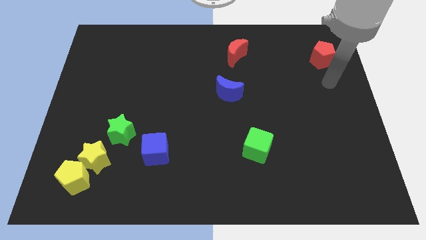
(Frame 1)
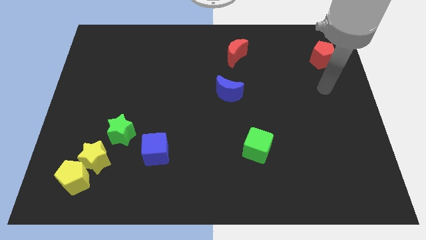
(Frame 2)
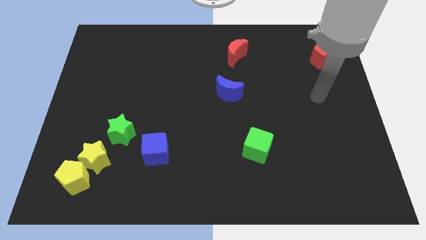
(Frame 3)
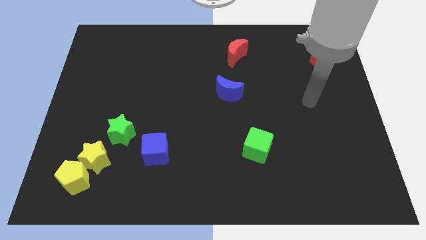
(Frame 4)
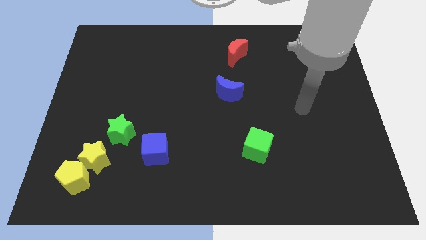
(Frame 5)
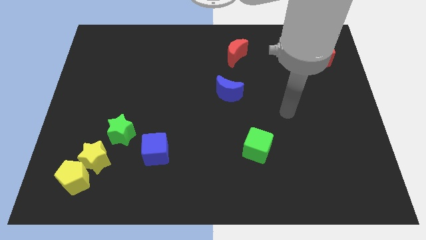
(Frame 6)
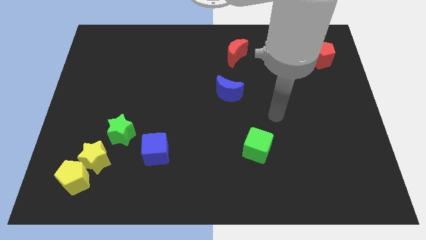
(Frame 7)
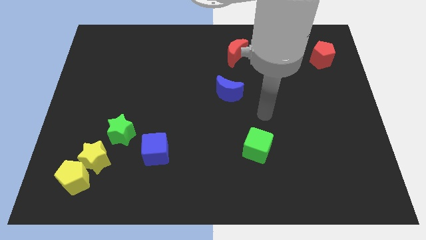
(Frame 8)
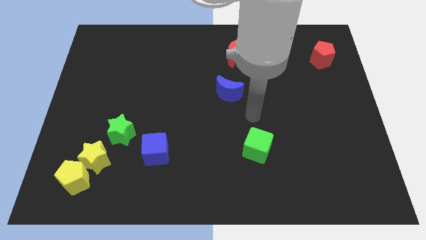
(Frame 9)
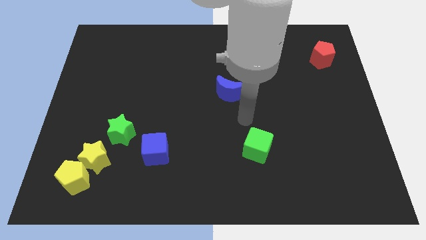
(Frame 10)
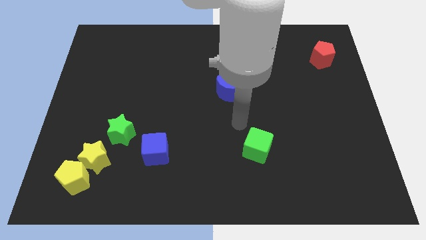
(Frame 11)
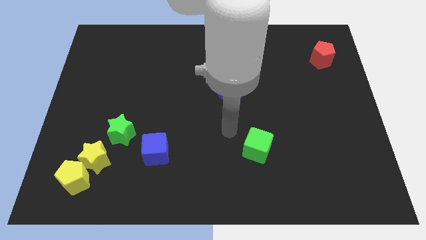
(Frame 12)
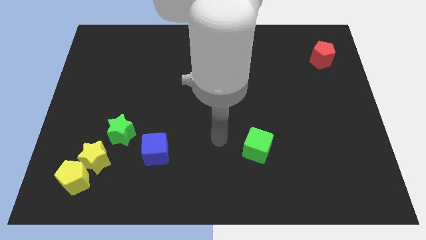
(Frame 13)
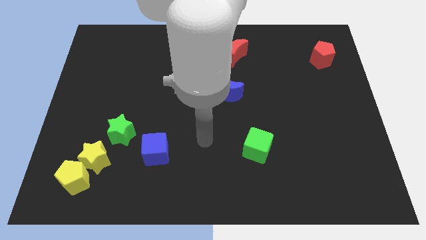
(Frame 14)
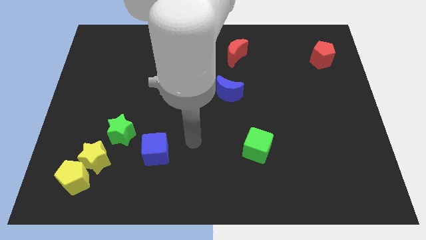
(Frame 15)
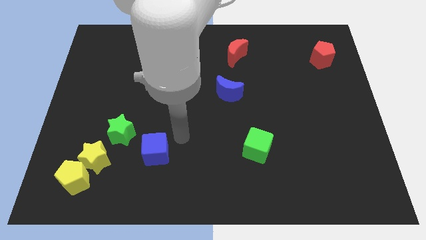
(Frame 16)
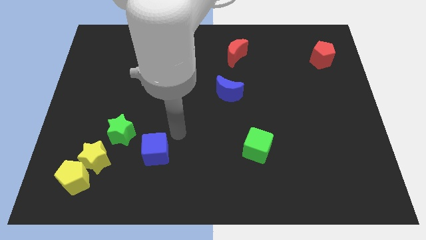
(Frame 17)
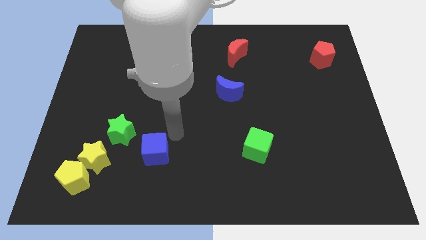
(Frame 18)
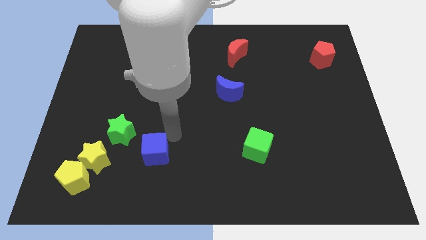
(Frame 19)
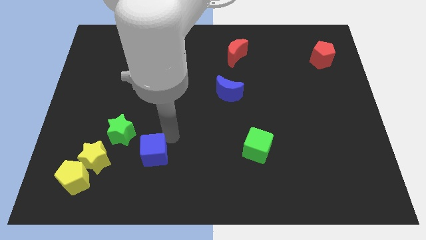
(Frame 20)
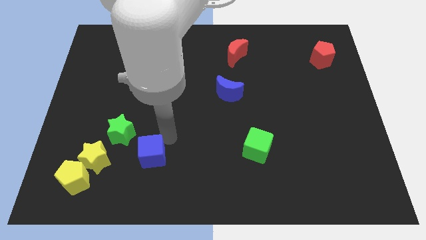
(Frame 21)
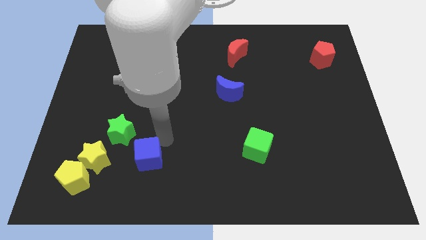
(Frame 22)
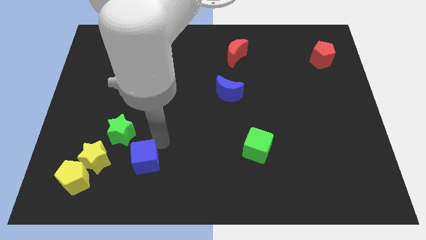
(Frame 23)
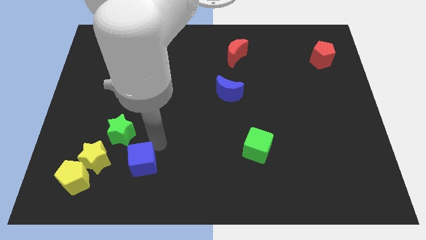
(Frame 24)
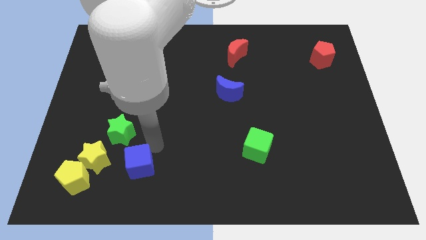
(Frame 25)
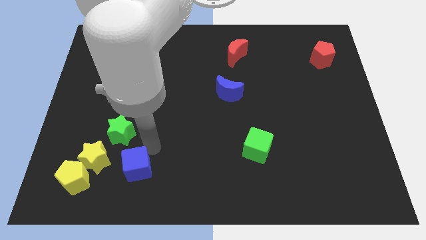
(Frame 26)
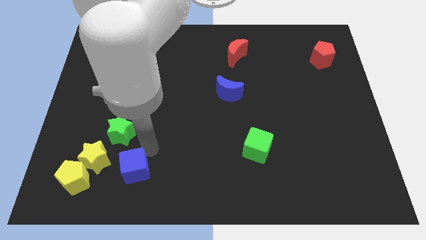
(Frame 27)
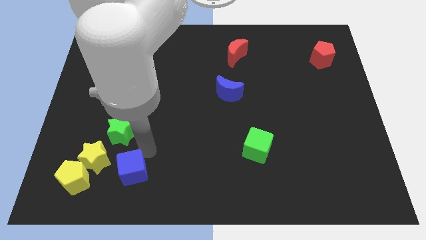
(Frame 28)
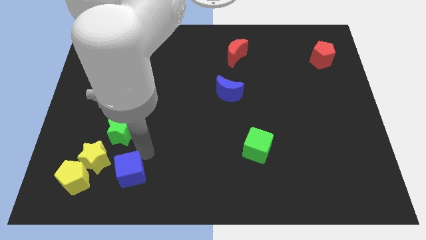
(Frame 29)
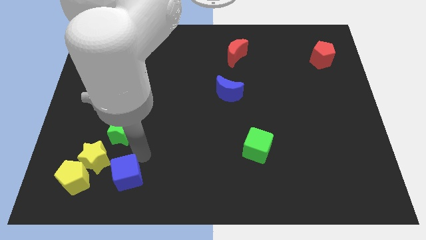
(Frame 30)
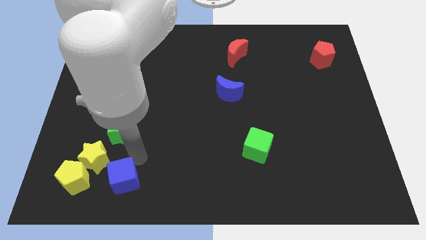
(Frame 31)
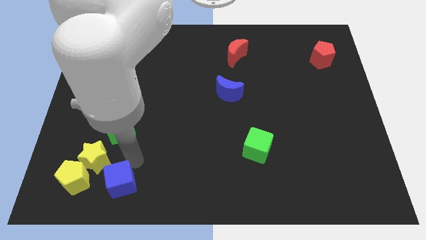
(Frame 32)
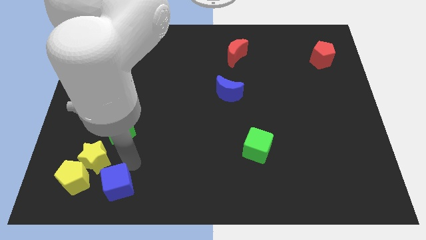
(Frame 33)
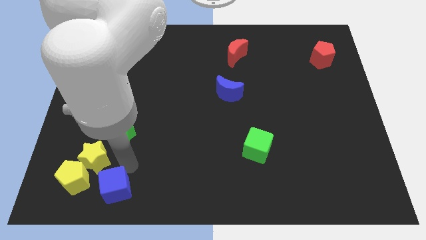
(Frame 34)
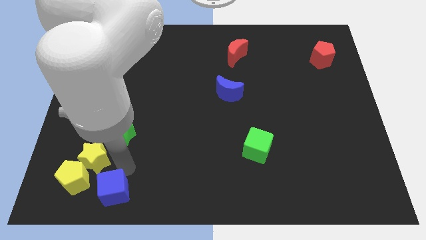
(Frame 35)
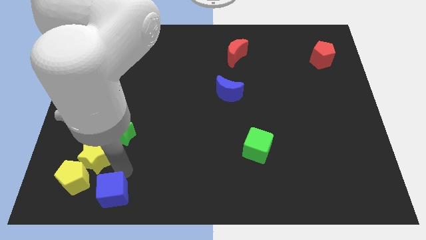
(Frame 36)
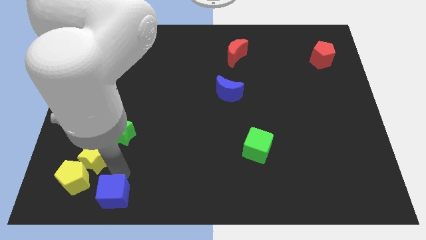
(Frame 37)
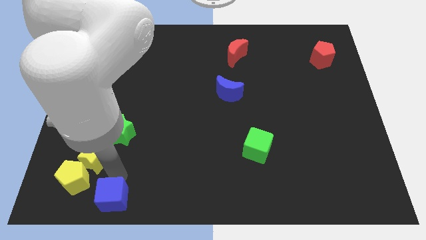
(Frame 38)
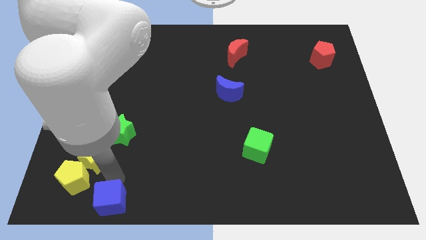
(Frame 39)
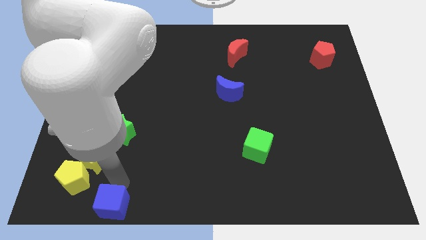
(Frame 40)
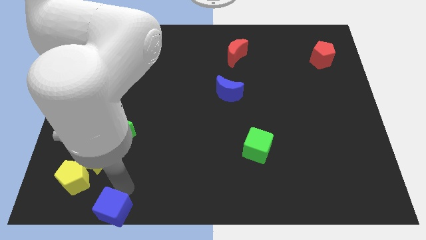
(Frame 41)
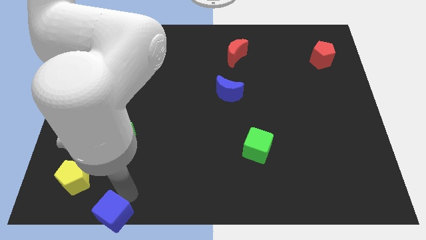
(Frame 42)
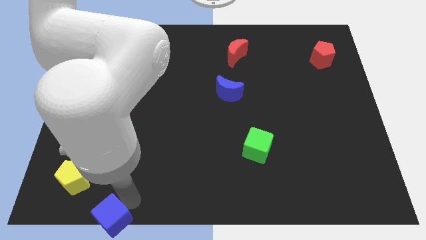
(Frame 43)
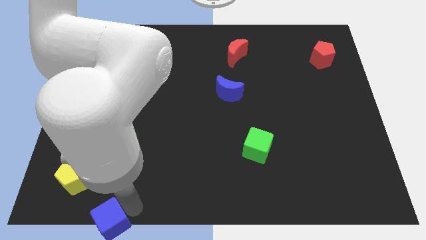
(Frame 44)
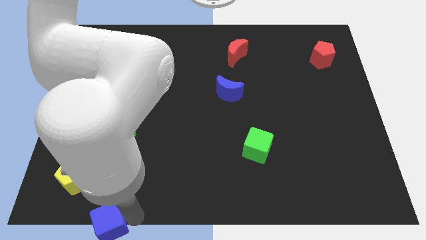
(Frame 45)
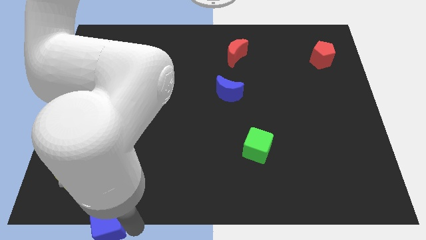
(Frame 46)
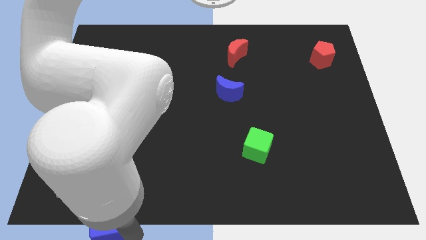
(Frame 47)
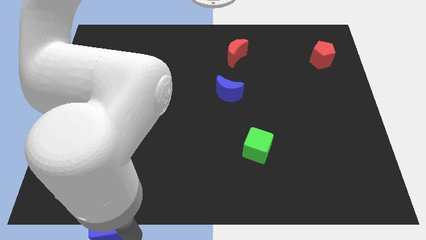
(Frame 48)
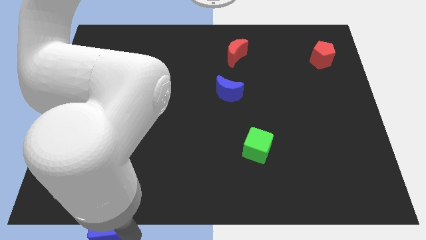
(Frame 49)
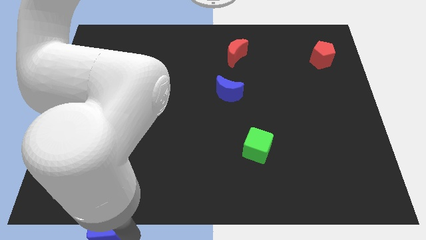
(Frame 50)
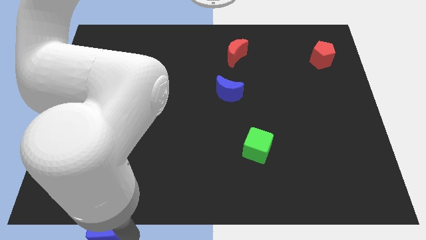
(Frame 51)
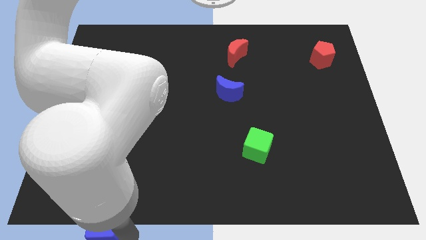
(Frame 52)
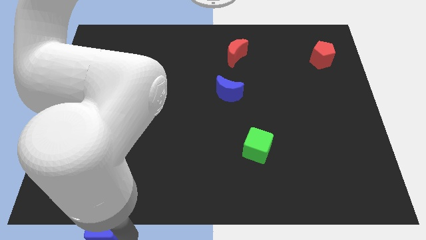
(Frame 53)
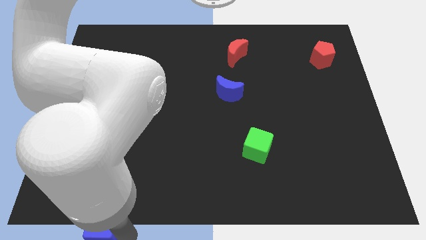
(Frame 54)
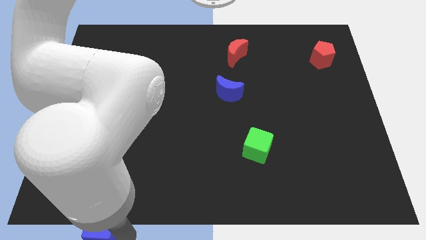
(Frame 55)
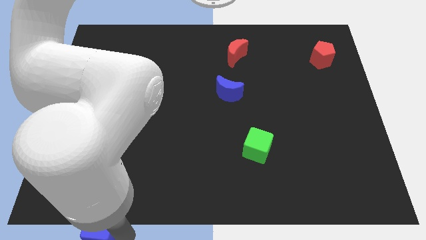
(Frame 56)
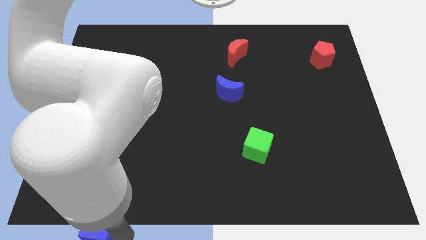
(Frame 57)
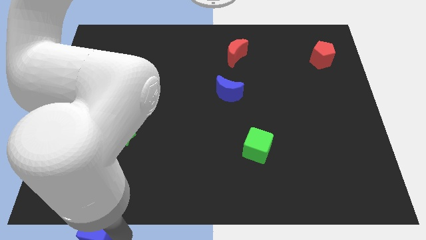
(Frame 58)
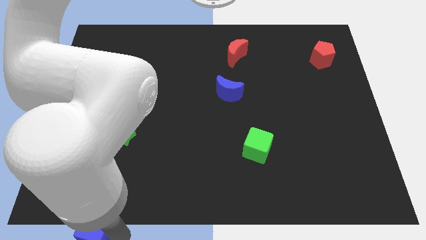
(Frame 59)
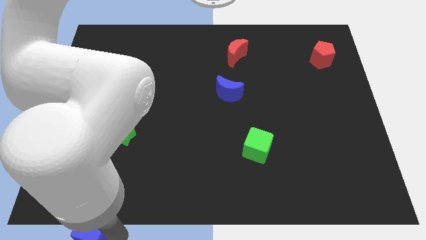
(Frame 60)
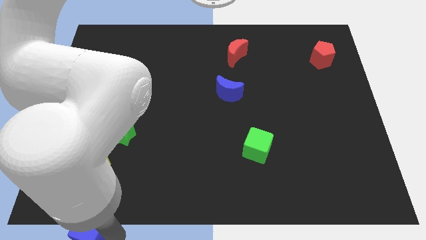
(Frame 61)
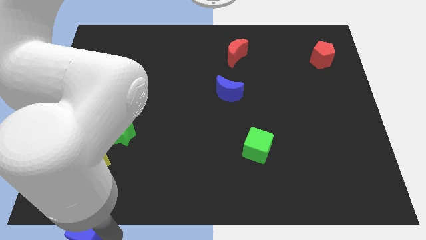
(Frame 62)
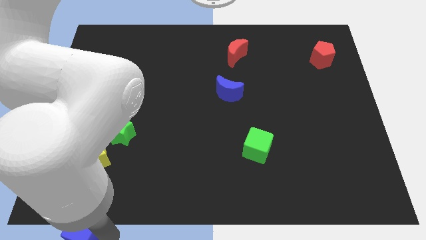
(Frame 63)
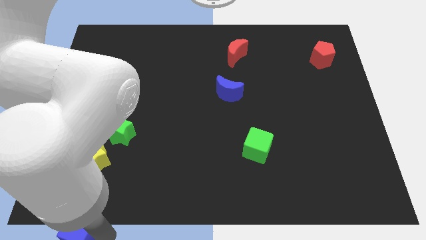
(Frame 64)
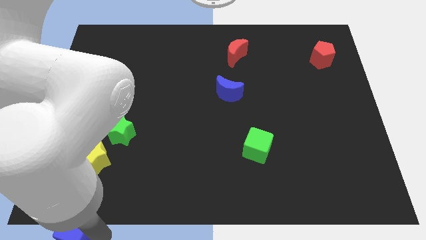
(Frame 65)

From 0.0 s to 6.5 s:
move the blue cube to the bottom left corner

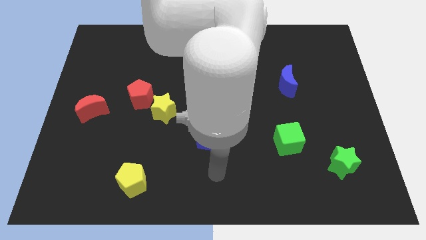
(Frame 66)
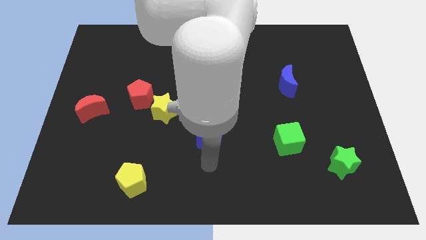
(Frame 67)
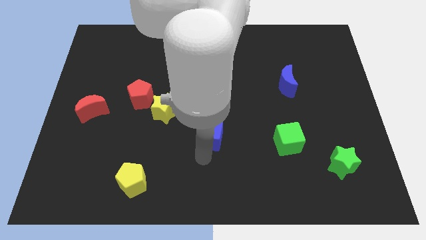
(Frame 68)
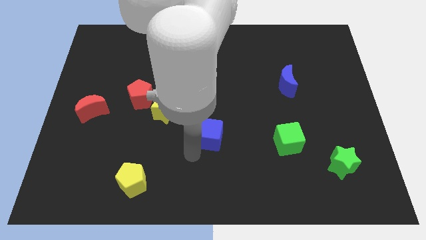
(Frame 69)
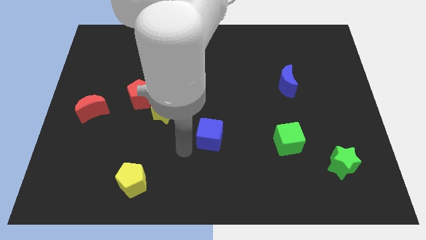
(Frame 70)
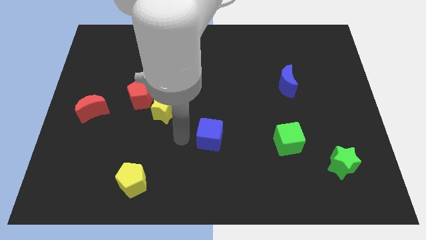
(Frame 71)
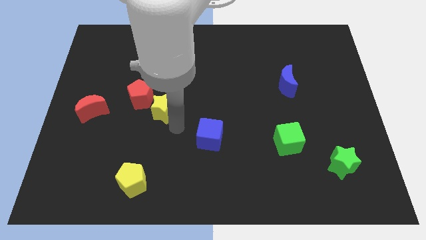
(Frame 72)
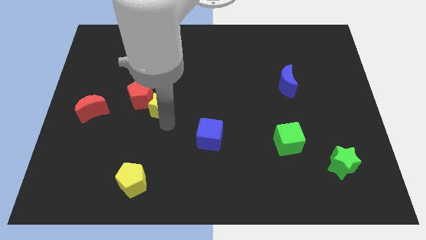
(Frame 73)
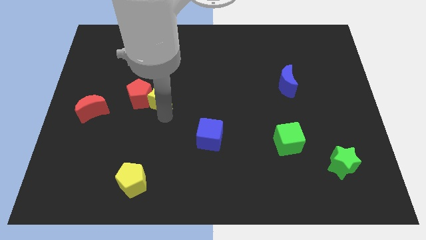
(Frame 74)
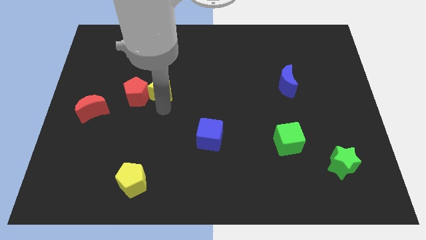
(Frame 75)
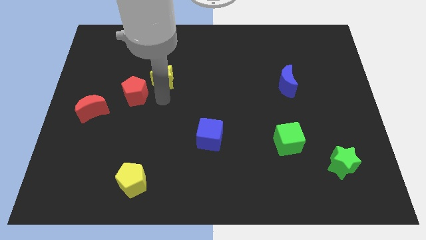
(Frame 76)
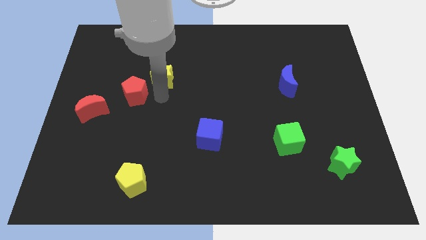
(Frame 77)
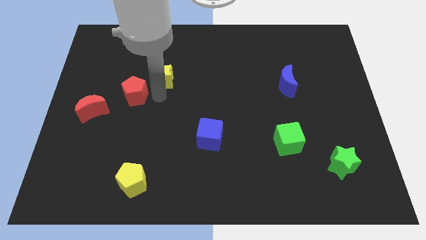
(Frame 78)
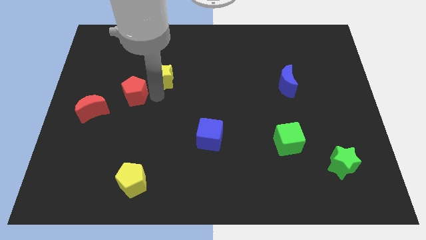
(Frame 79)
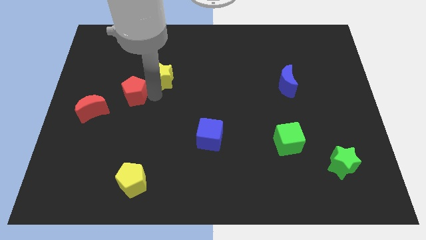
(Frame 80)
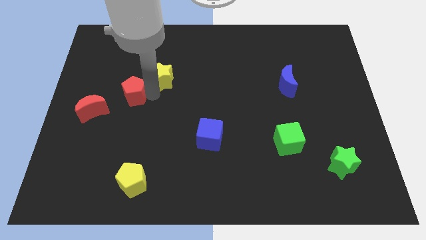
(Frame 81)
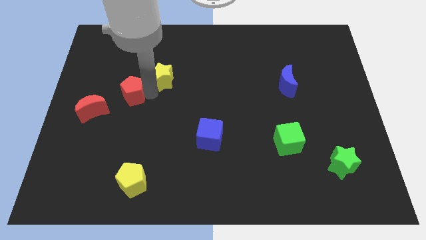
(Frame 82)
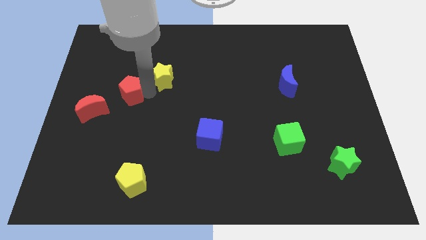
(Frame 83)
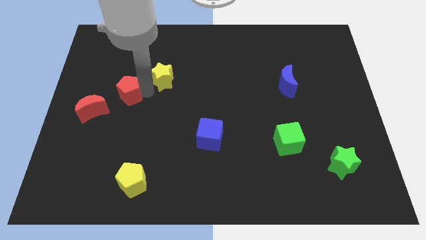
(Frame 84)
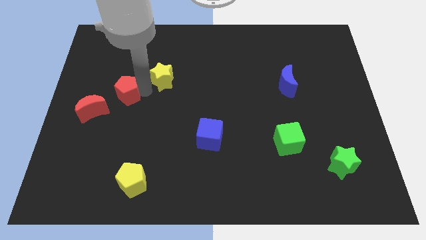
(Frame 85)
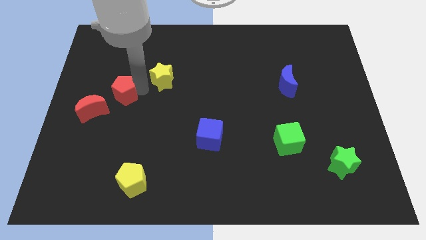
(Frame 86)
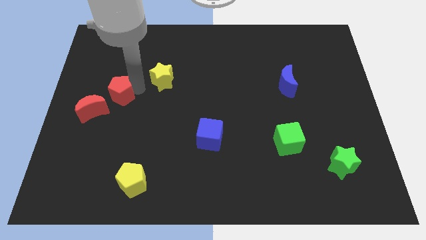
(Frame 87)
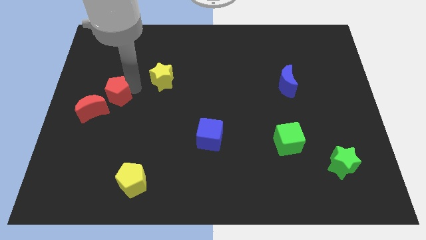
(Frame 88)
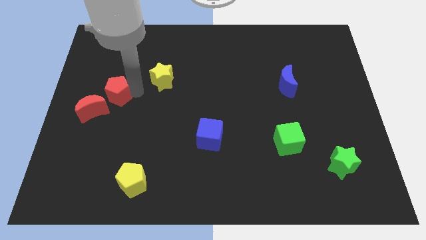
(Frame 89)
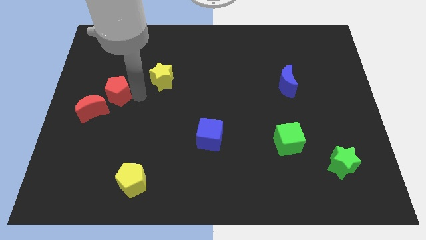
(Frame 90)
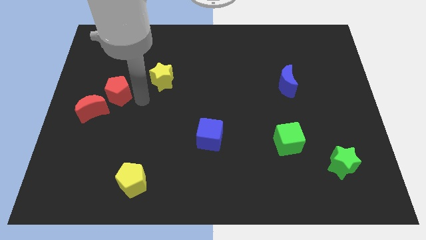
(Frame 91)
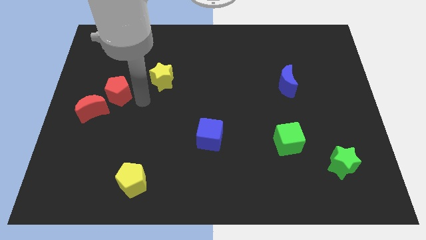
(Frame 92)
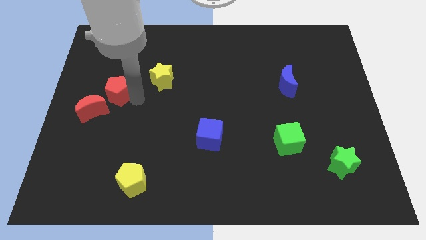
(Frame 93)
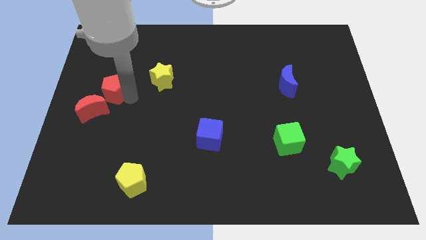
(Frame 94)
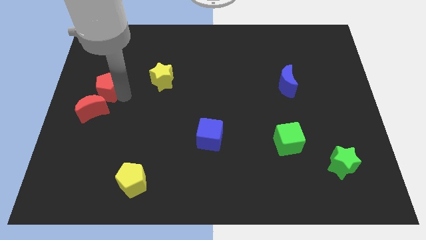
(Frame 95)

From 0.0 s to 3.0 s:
slide the red pentagon to the left side of the board
